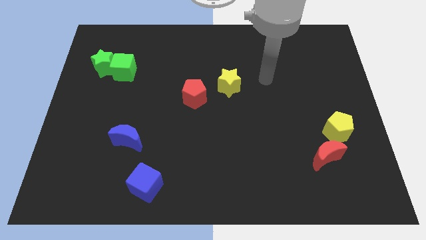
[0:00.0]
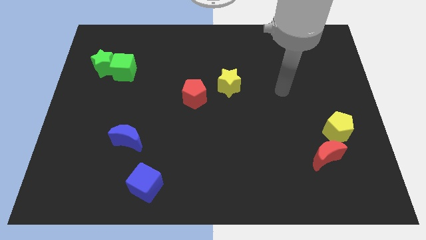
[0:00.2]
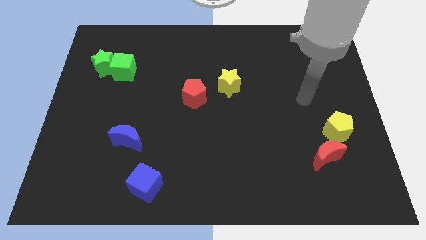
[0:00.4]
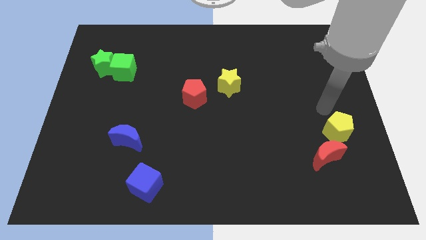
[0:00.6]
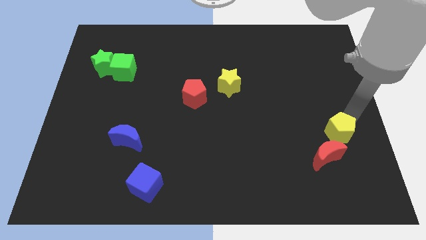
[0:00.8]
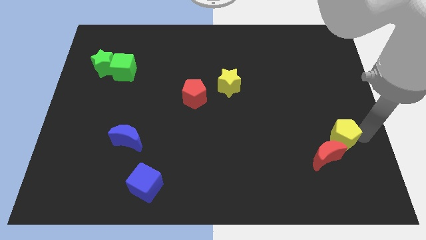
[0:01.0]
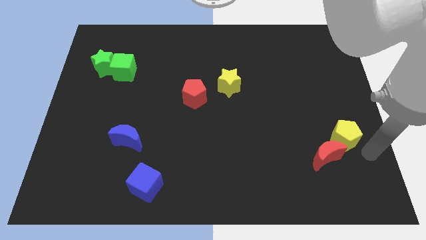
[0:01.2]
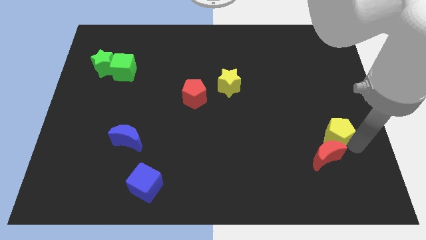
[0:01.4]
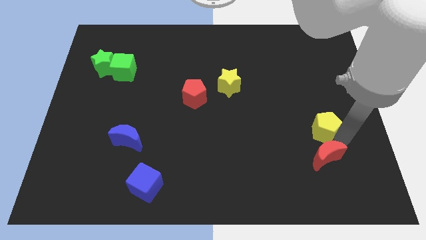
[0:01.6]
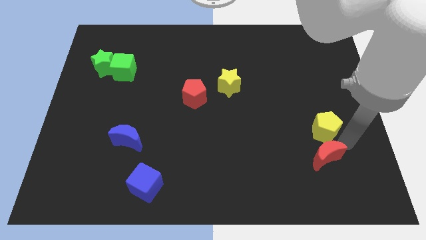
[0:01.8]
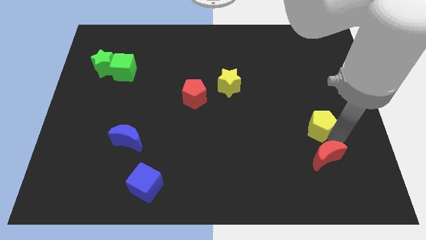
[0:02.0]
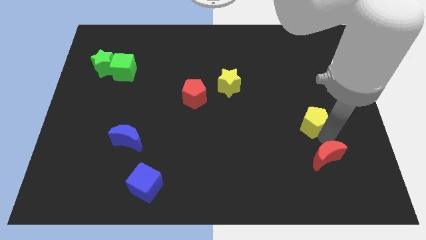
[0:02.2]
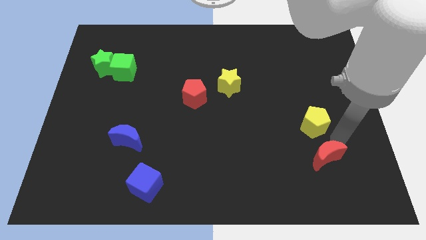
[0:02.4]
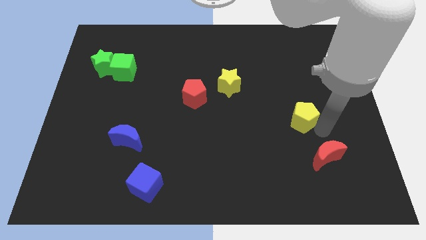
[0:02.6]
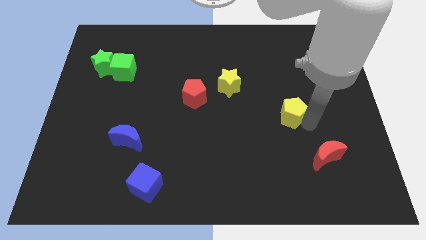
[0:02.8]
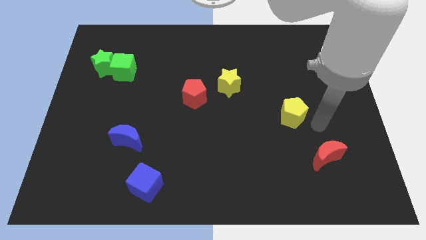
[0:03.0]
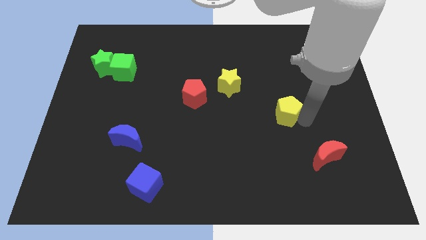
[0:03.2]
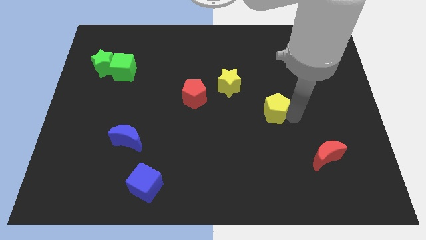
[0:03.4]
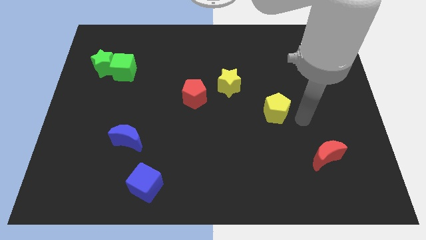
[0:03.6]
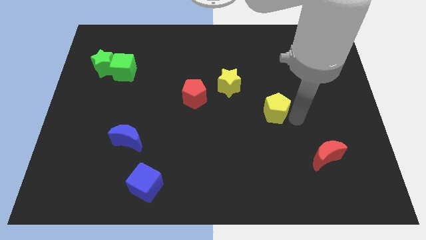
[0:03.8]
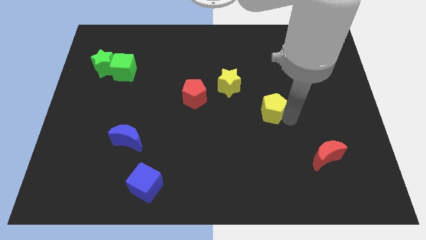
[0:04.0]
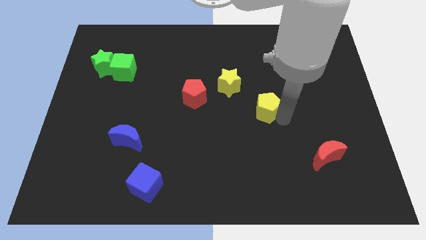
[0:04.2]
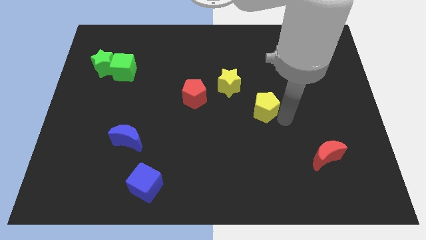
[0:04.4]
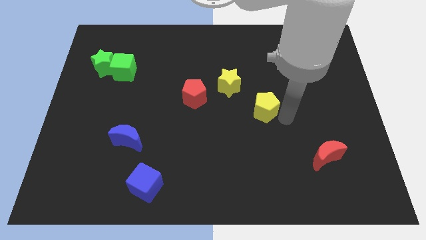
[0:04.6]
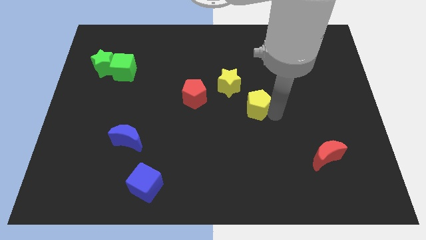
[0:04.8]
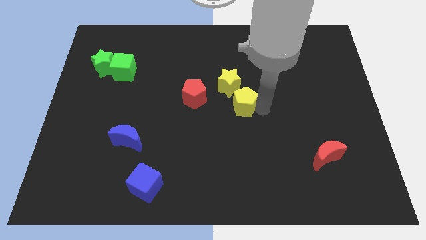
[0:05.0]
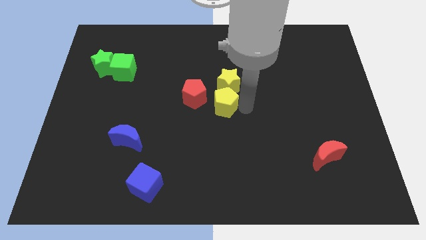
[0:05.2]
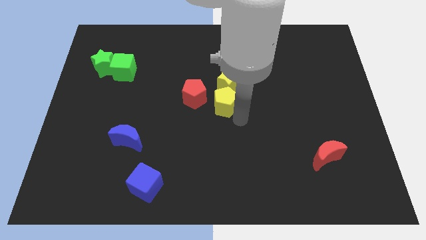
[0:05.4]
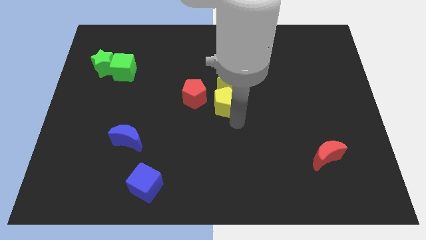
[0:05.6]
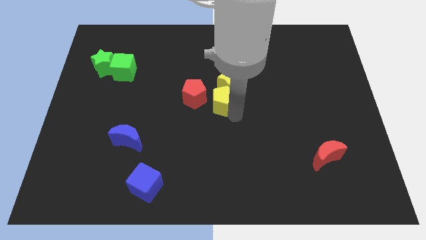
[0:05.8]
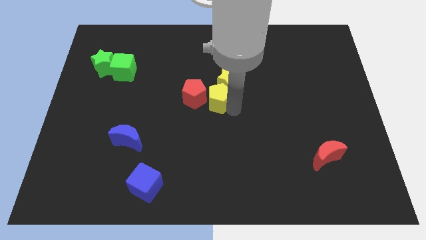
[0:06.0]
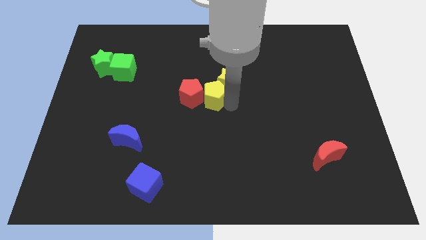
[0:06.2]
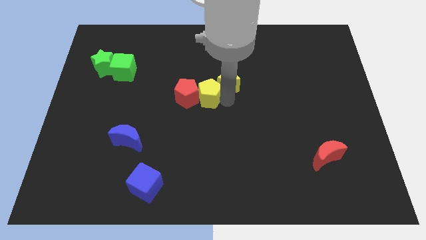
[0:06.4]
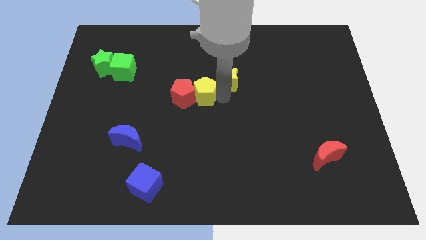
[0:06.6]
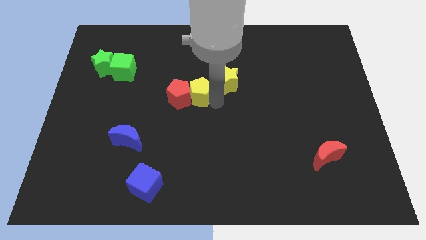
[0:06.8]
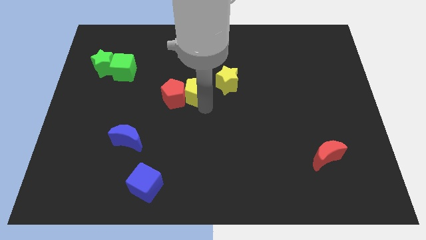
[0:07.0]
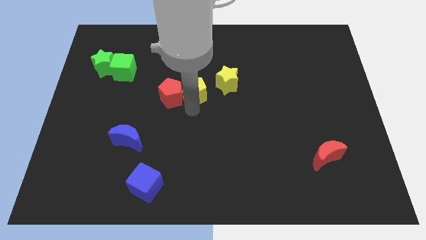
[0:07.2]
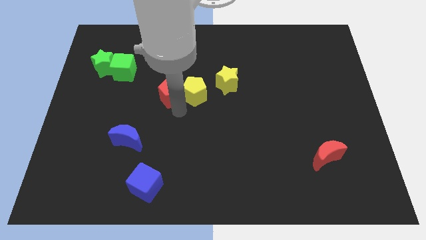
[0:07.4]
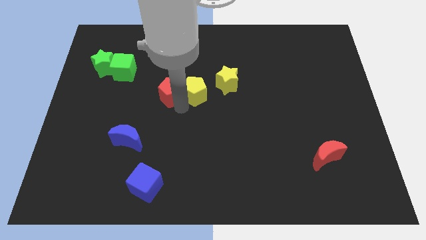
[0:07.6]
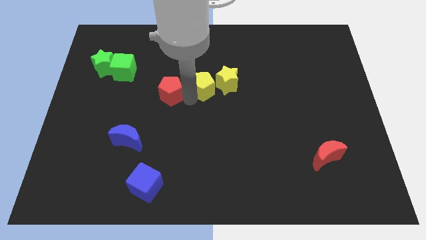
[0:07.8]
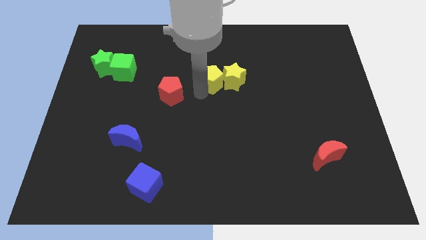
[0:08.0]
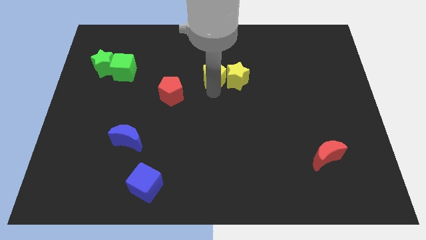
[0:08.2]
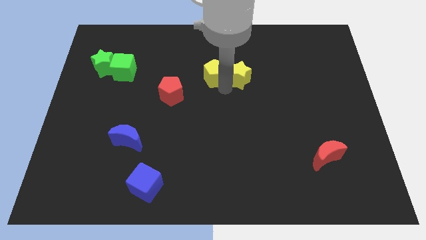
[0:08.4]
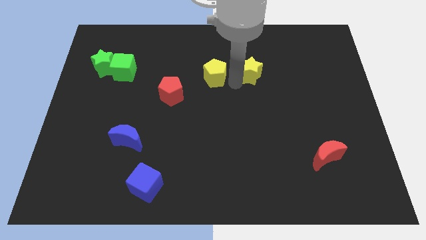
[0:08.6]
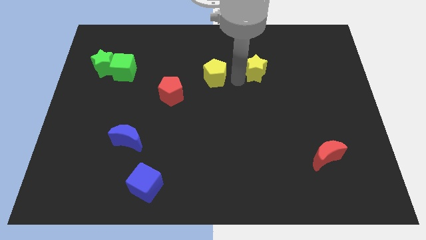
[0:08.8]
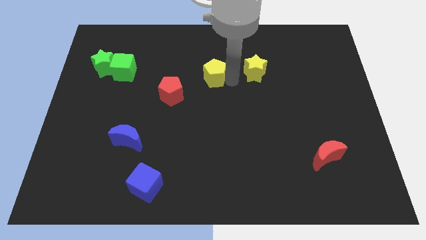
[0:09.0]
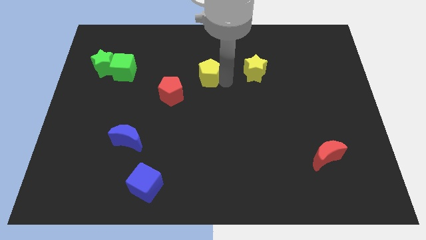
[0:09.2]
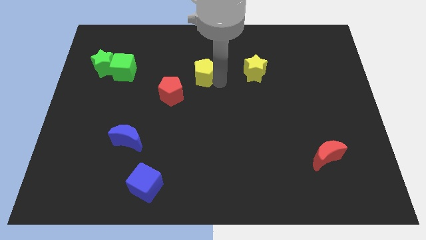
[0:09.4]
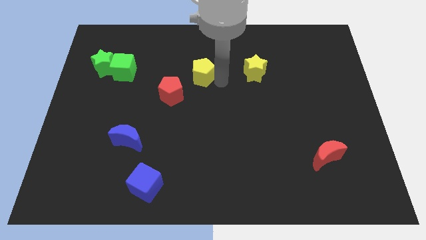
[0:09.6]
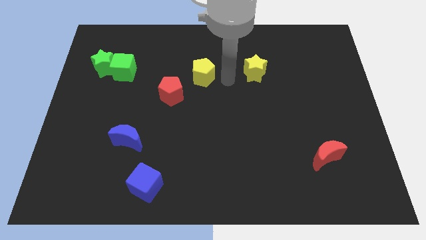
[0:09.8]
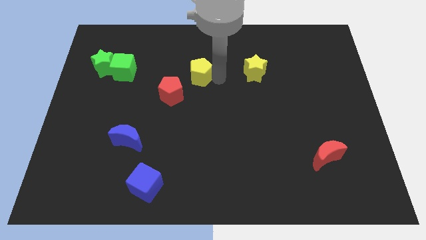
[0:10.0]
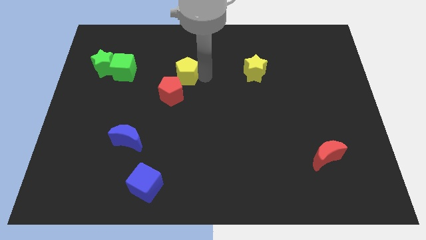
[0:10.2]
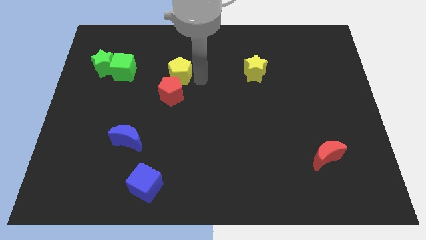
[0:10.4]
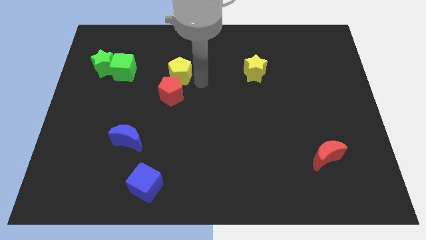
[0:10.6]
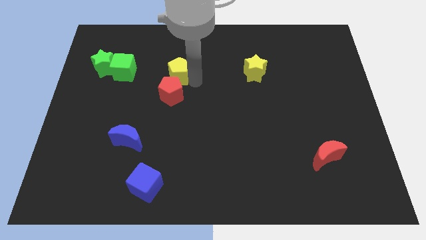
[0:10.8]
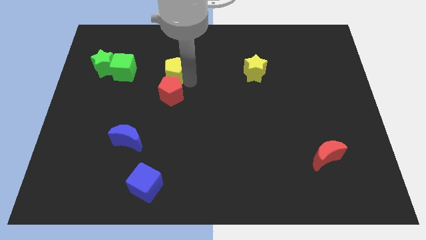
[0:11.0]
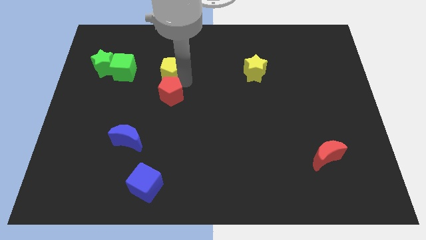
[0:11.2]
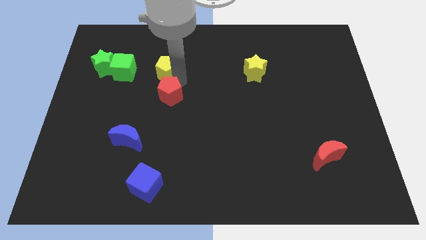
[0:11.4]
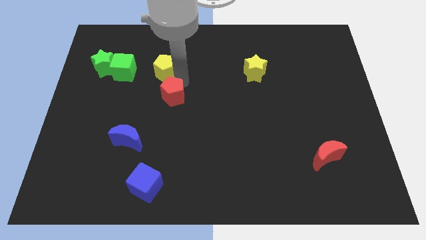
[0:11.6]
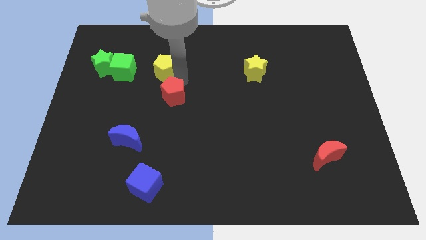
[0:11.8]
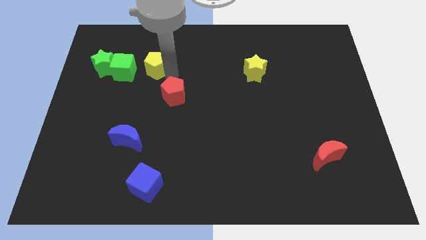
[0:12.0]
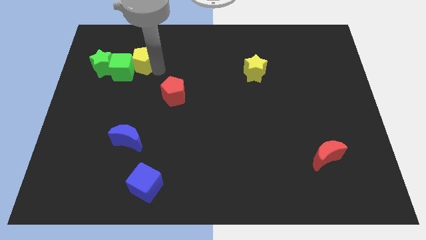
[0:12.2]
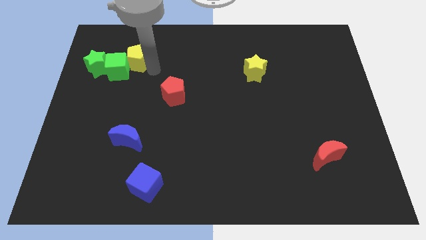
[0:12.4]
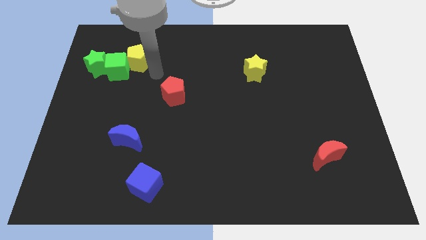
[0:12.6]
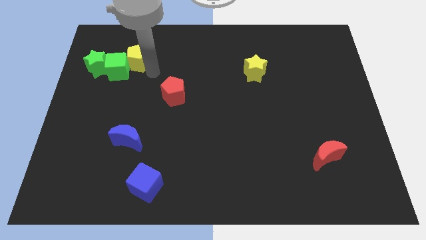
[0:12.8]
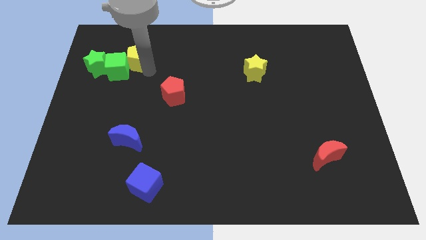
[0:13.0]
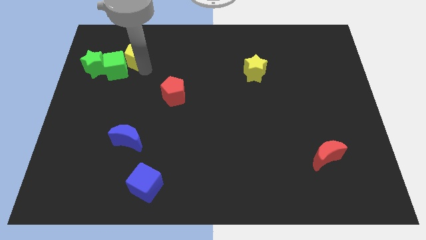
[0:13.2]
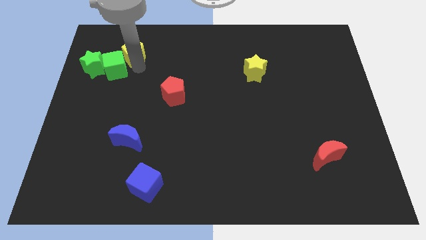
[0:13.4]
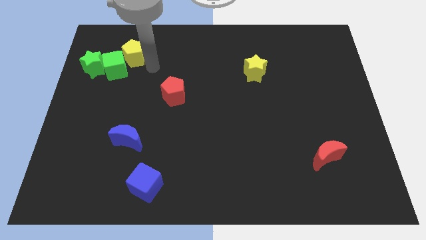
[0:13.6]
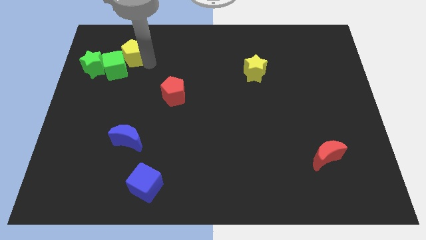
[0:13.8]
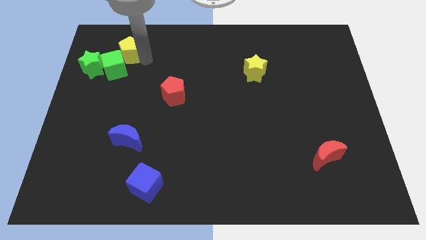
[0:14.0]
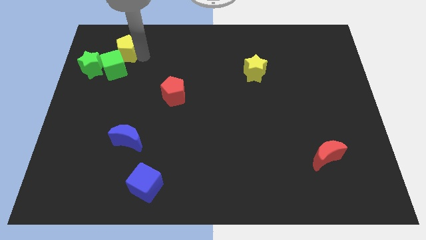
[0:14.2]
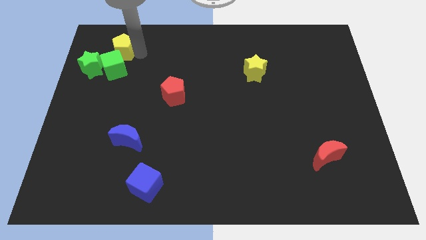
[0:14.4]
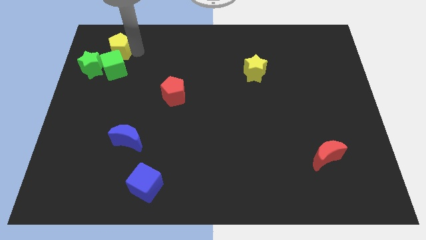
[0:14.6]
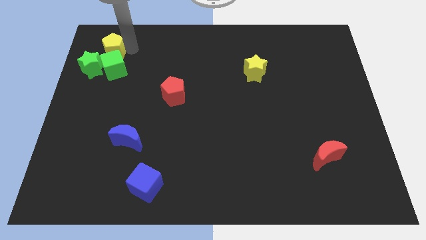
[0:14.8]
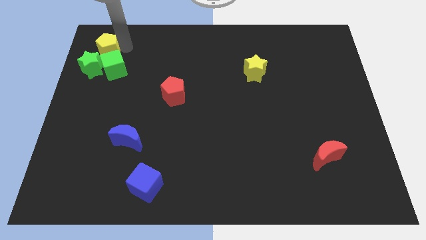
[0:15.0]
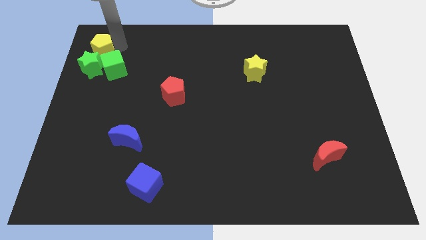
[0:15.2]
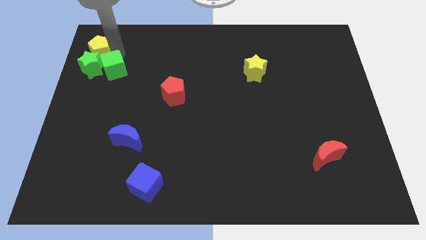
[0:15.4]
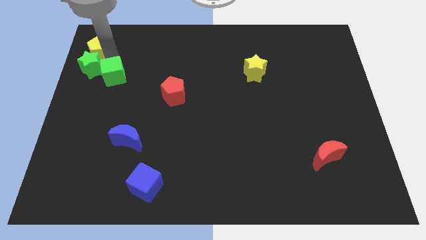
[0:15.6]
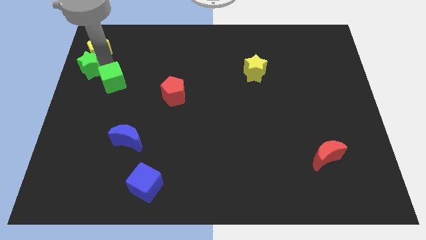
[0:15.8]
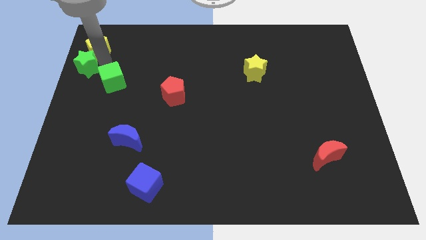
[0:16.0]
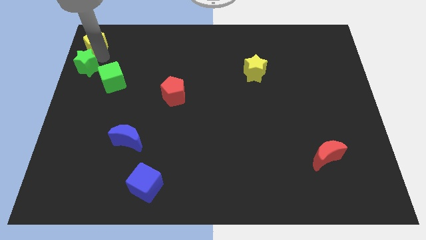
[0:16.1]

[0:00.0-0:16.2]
push the yellow pentagon to the top left
